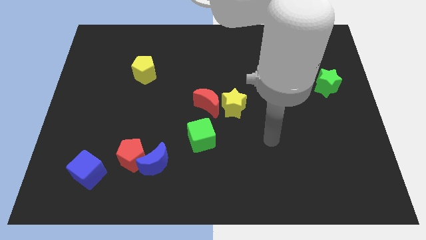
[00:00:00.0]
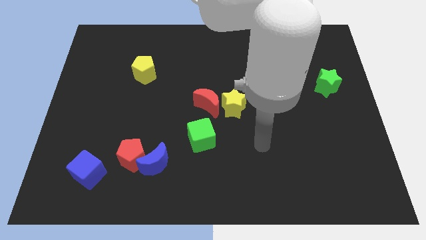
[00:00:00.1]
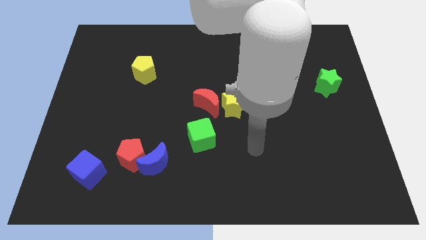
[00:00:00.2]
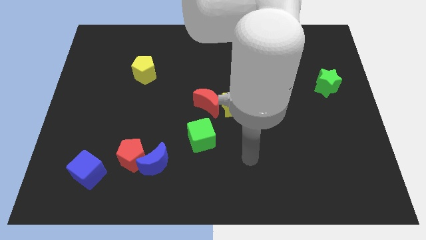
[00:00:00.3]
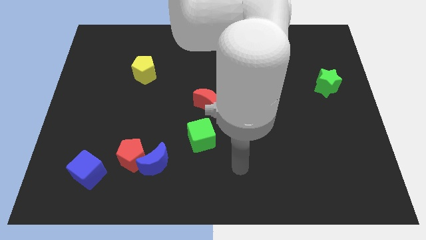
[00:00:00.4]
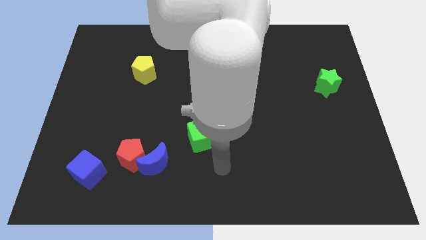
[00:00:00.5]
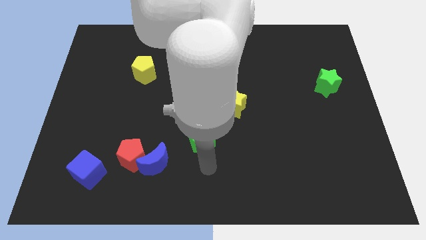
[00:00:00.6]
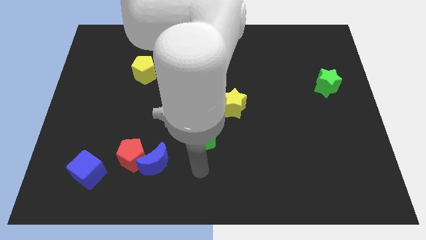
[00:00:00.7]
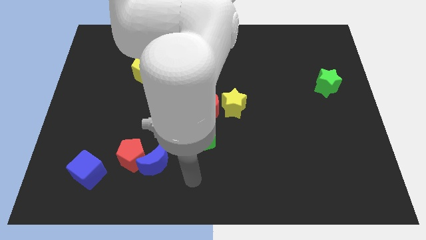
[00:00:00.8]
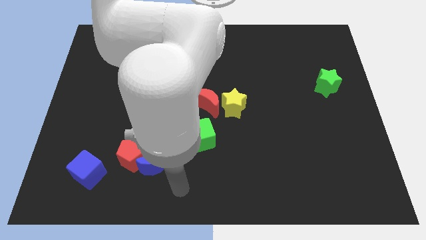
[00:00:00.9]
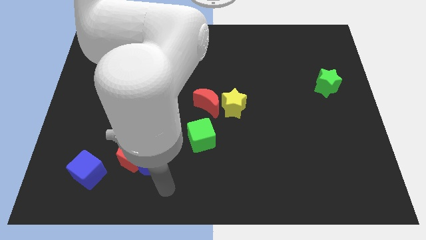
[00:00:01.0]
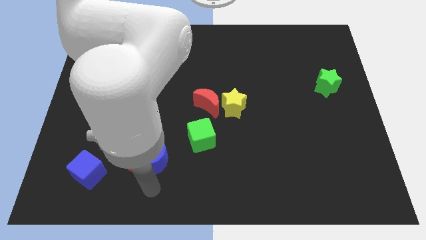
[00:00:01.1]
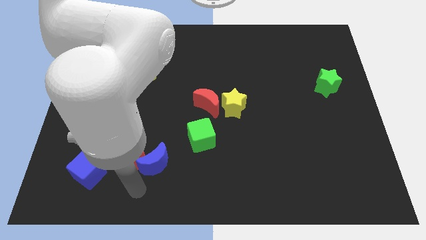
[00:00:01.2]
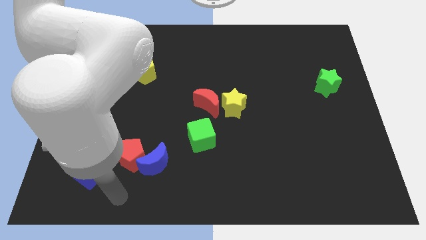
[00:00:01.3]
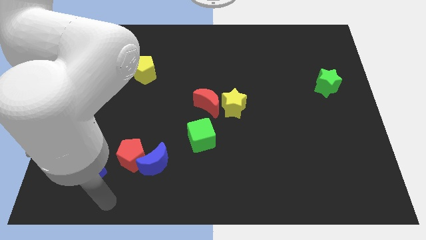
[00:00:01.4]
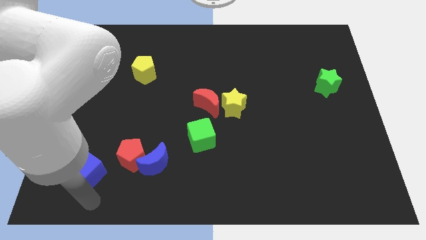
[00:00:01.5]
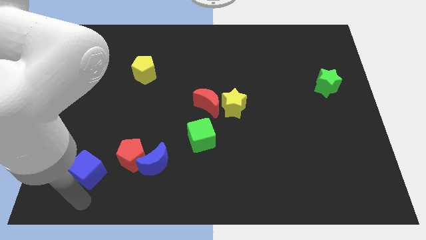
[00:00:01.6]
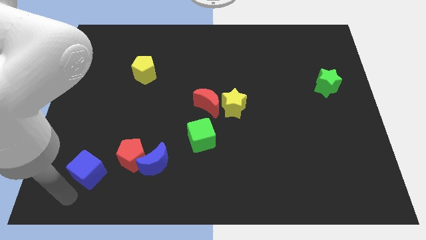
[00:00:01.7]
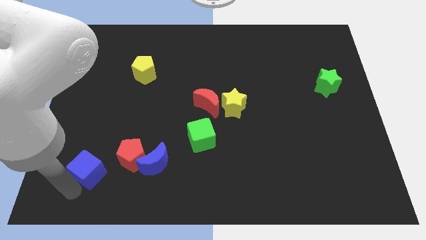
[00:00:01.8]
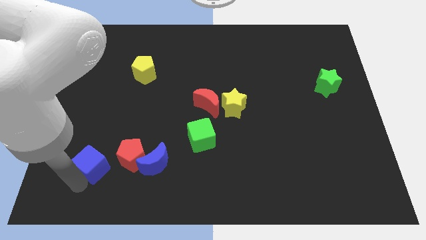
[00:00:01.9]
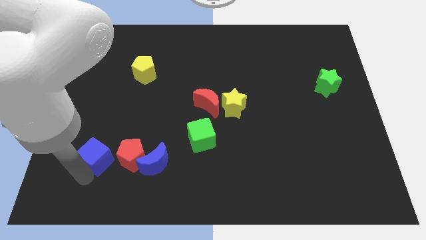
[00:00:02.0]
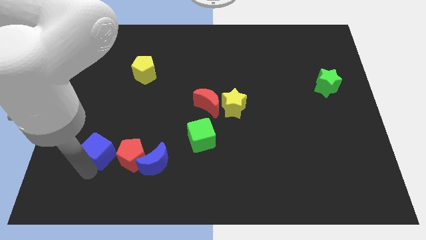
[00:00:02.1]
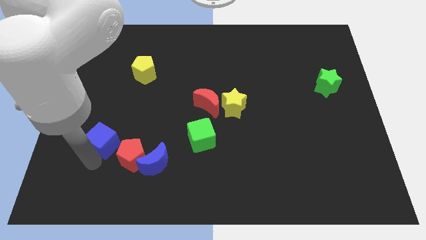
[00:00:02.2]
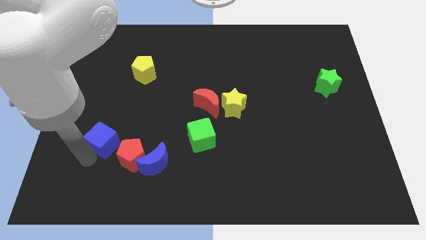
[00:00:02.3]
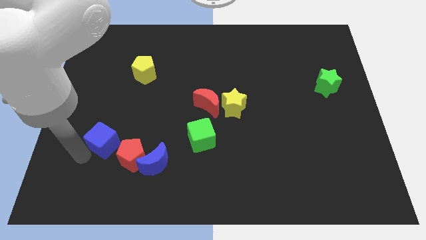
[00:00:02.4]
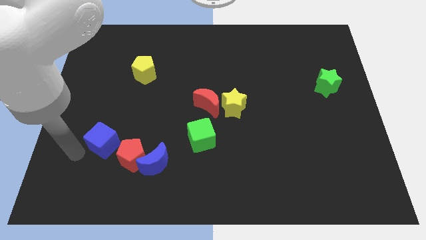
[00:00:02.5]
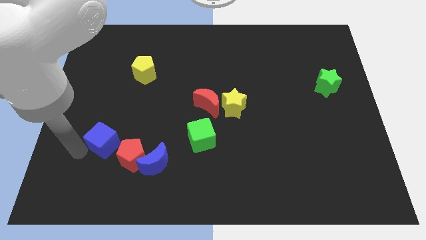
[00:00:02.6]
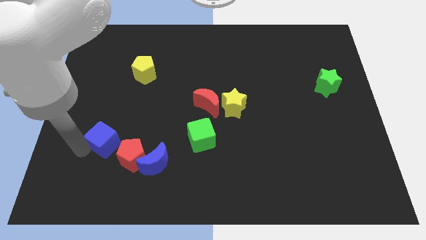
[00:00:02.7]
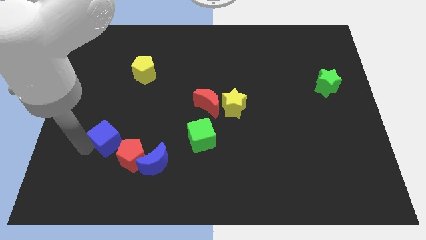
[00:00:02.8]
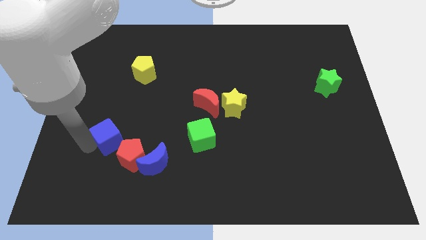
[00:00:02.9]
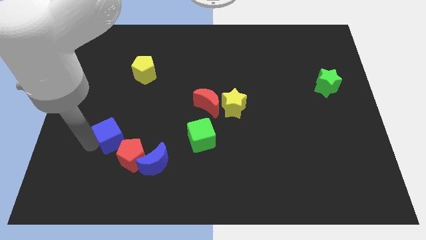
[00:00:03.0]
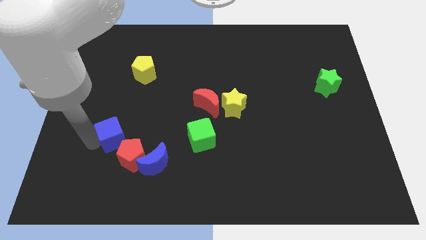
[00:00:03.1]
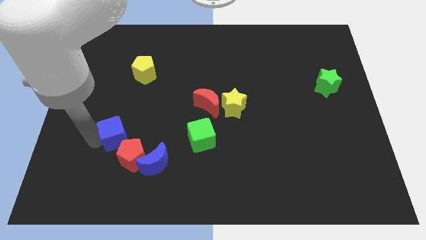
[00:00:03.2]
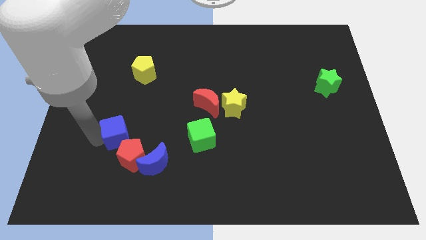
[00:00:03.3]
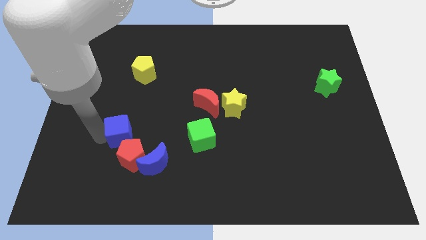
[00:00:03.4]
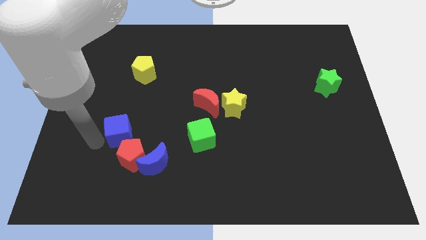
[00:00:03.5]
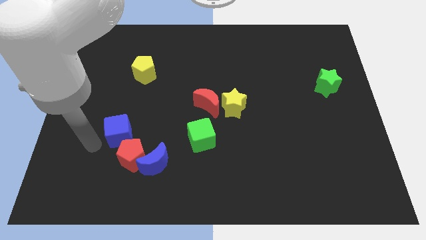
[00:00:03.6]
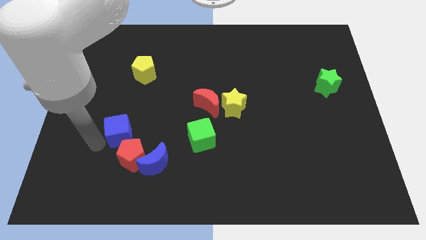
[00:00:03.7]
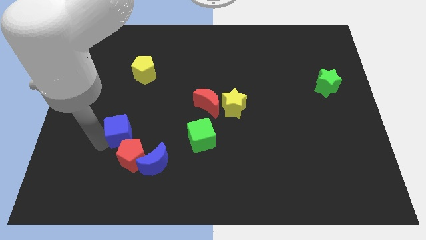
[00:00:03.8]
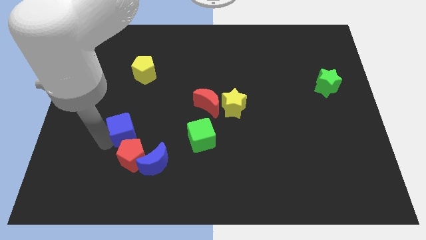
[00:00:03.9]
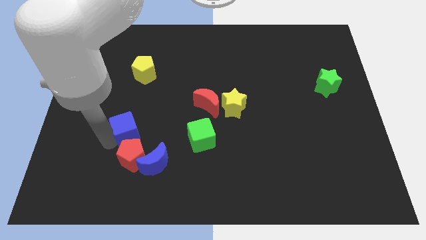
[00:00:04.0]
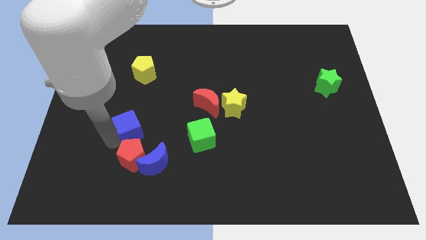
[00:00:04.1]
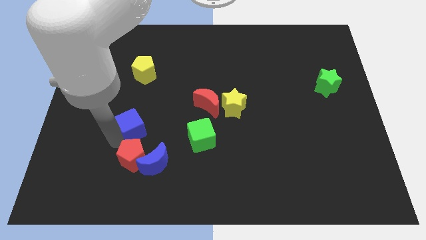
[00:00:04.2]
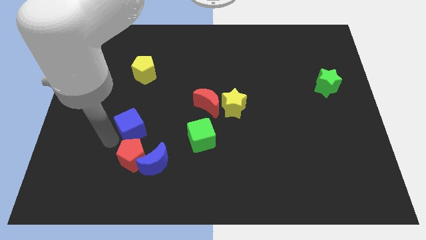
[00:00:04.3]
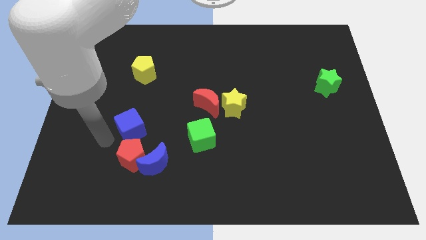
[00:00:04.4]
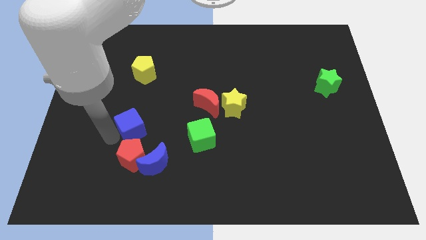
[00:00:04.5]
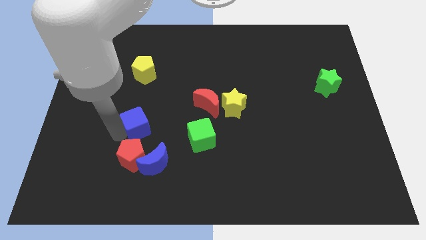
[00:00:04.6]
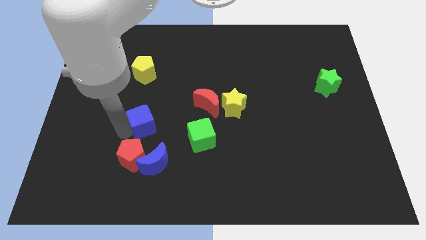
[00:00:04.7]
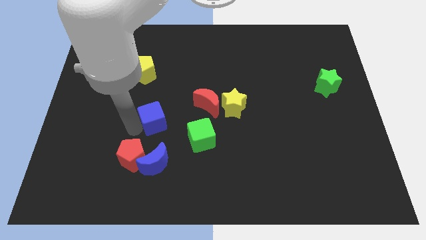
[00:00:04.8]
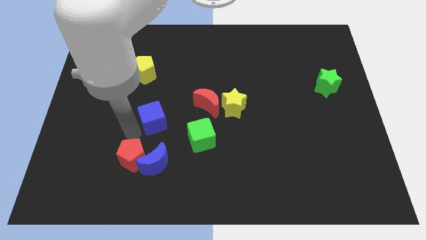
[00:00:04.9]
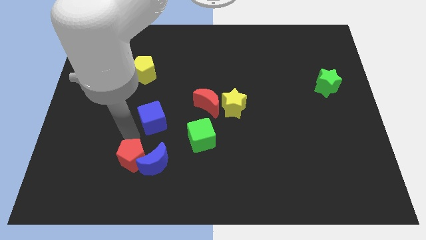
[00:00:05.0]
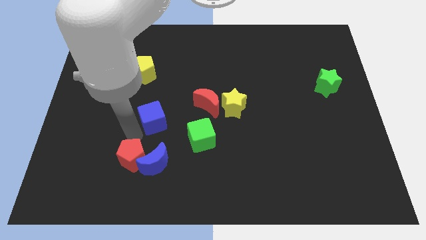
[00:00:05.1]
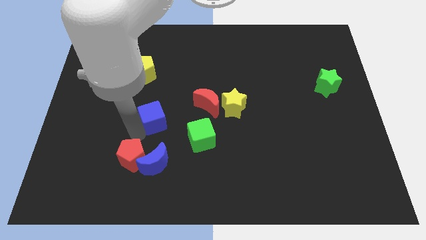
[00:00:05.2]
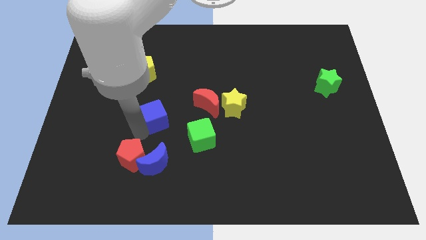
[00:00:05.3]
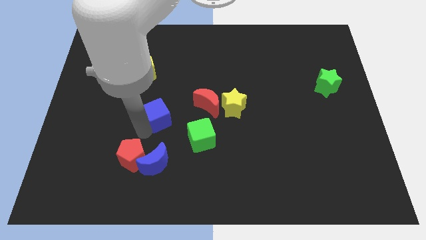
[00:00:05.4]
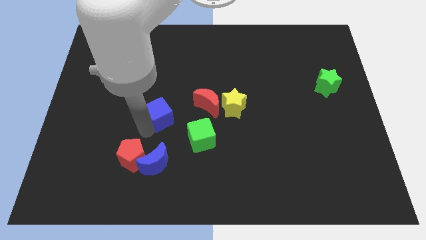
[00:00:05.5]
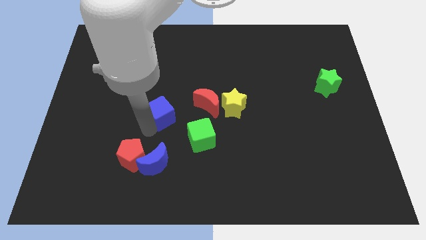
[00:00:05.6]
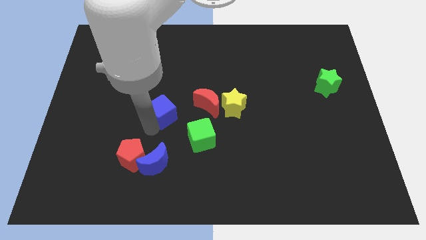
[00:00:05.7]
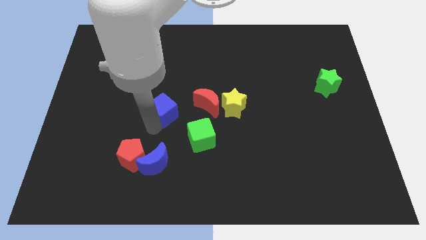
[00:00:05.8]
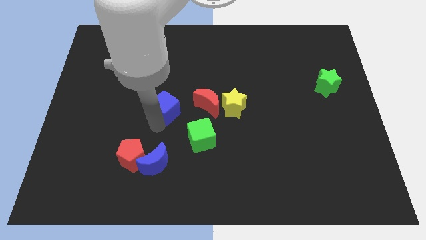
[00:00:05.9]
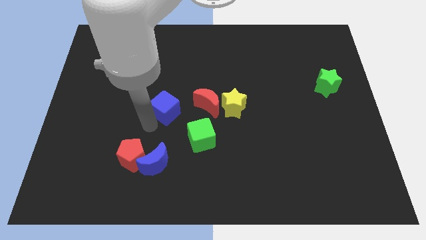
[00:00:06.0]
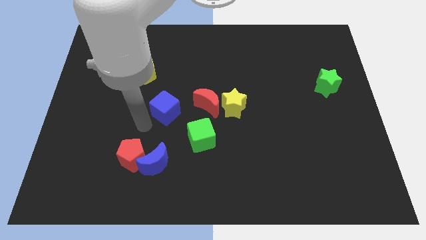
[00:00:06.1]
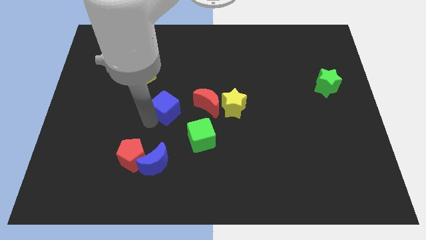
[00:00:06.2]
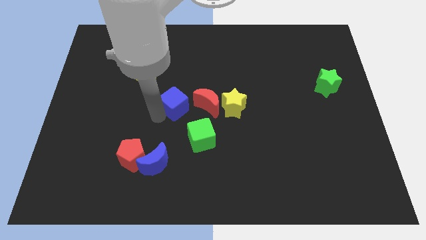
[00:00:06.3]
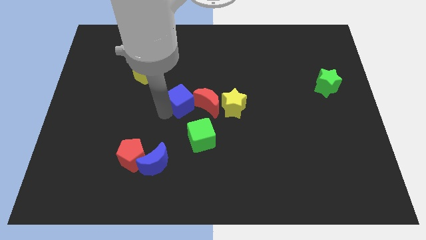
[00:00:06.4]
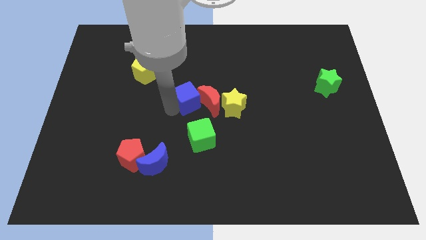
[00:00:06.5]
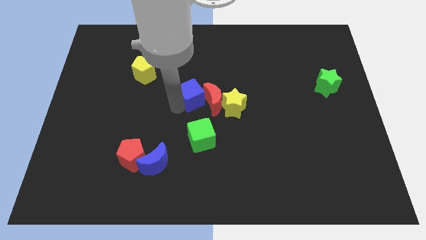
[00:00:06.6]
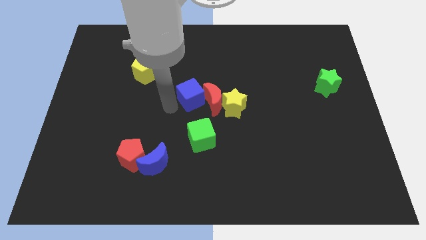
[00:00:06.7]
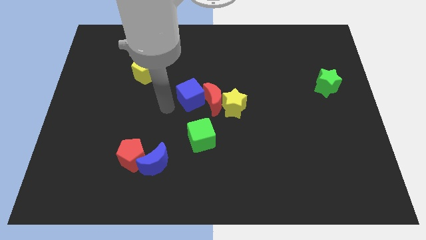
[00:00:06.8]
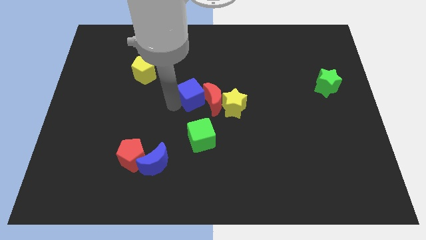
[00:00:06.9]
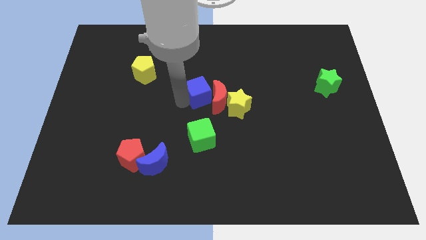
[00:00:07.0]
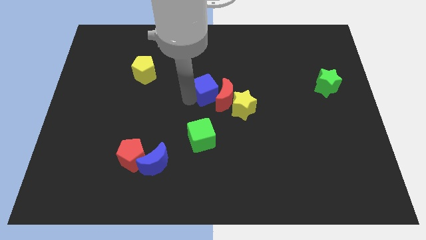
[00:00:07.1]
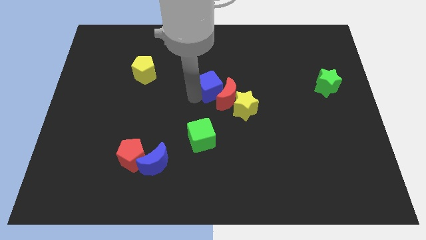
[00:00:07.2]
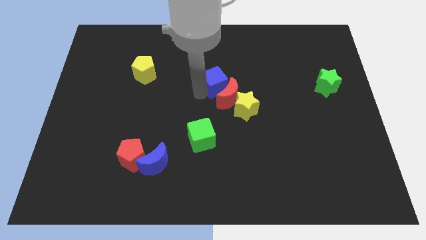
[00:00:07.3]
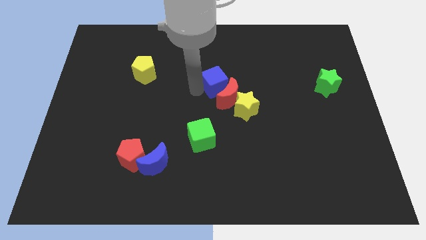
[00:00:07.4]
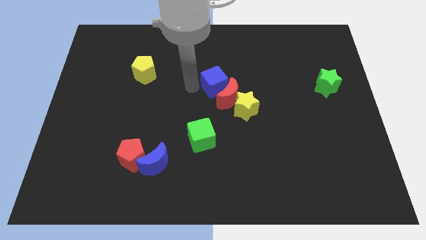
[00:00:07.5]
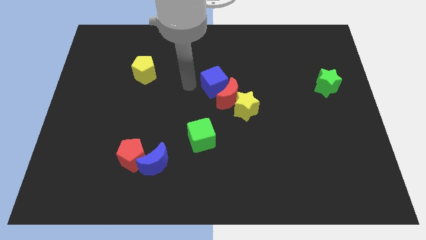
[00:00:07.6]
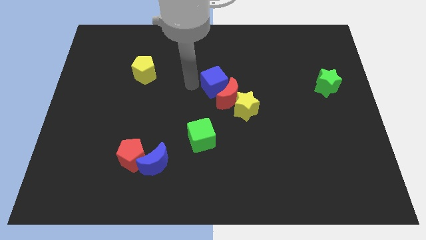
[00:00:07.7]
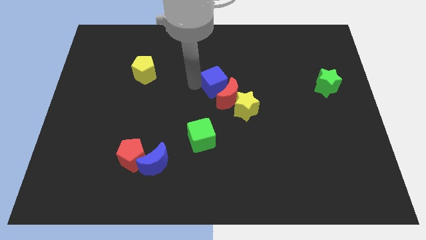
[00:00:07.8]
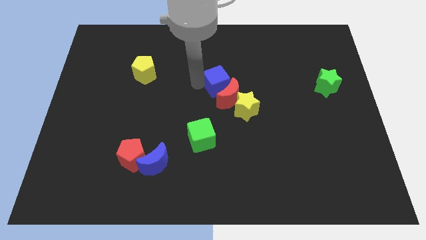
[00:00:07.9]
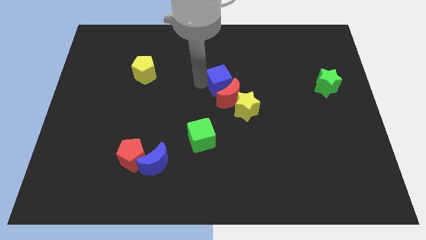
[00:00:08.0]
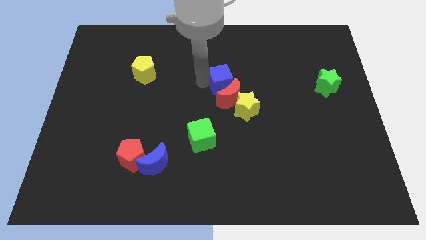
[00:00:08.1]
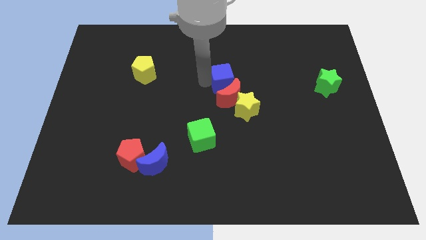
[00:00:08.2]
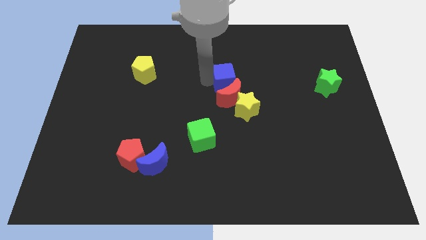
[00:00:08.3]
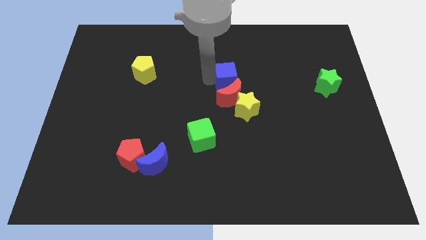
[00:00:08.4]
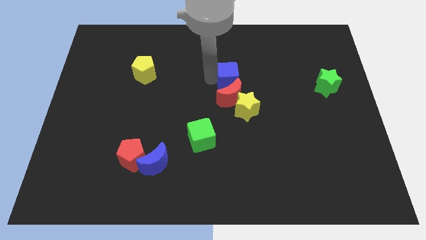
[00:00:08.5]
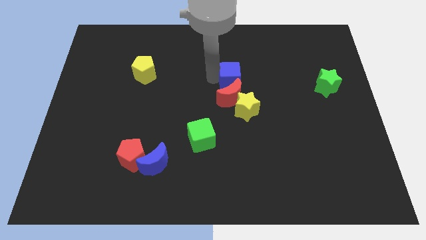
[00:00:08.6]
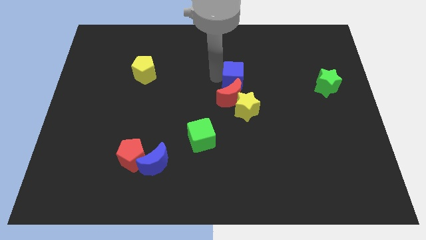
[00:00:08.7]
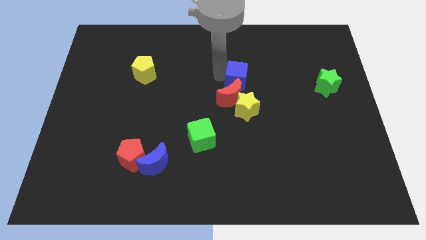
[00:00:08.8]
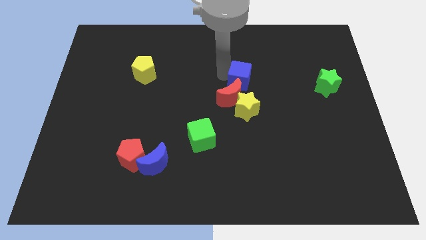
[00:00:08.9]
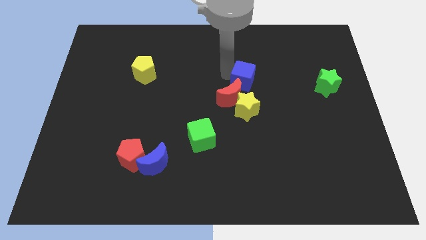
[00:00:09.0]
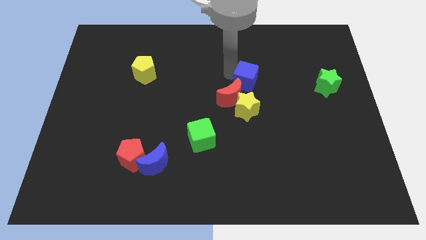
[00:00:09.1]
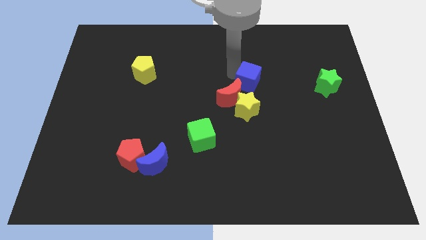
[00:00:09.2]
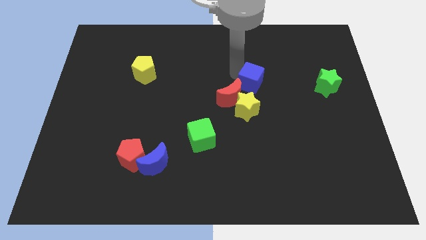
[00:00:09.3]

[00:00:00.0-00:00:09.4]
move the blue cube diagonally up and to the right of the yellow star
